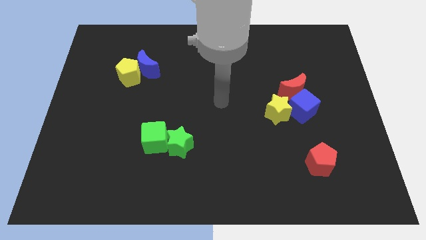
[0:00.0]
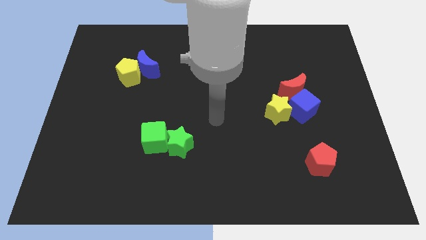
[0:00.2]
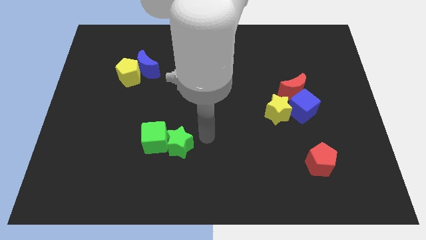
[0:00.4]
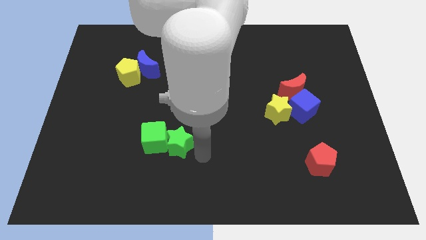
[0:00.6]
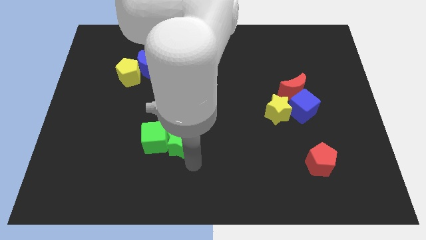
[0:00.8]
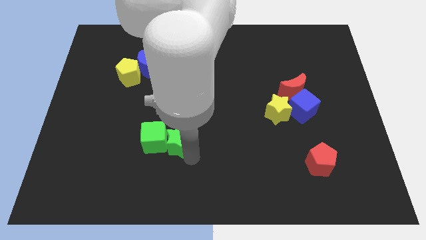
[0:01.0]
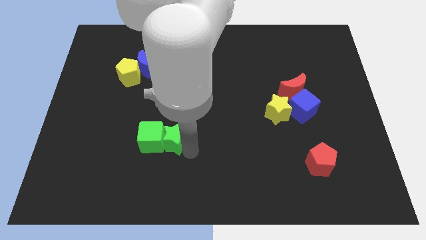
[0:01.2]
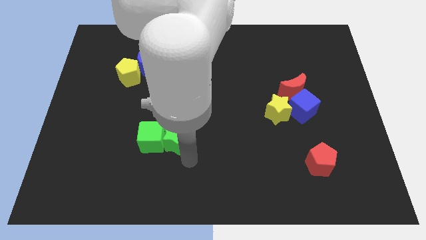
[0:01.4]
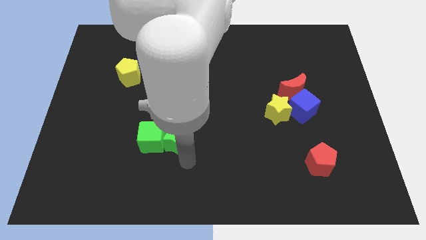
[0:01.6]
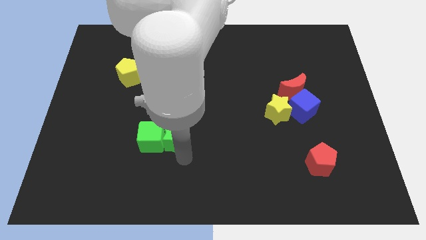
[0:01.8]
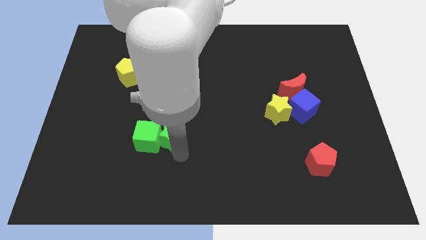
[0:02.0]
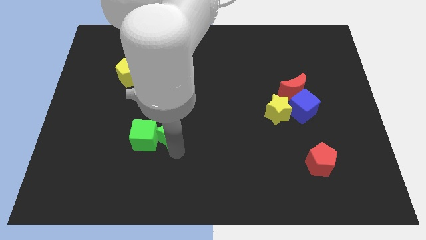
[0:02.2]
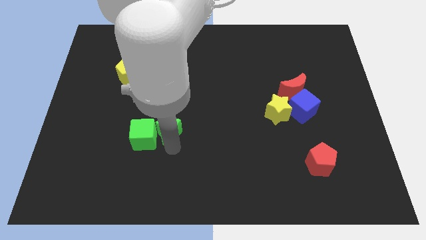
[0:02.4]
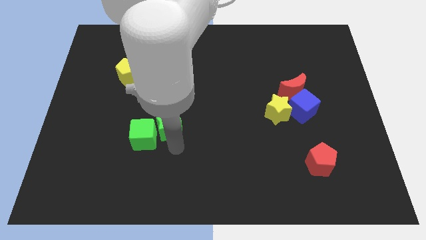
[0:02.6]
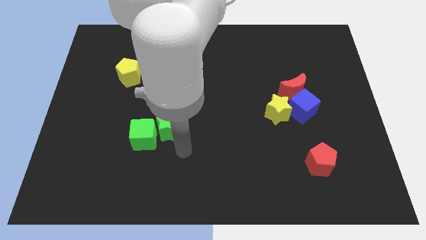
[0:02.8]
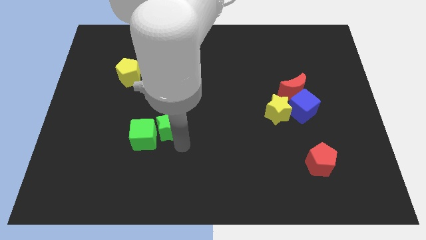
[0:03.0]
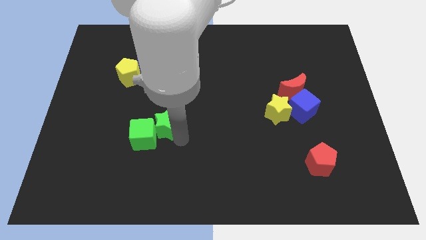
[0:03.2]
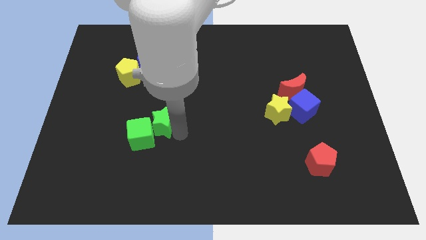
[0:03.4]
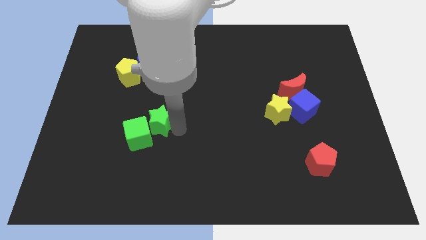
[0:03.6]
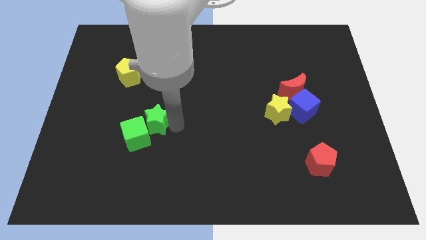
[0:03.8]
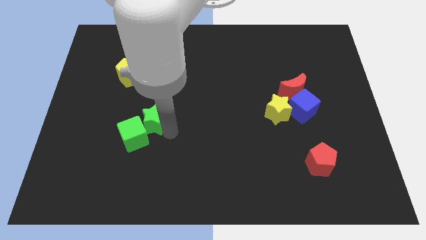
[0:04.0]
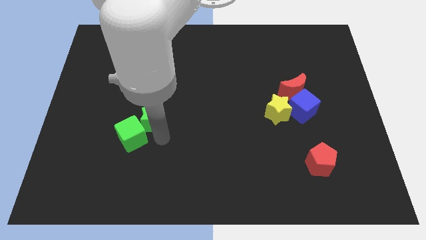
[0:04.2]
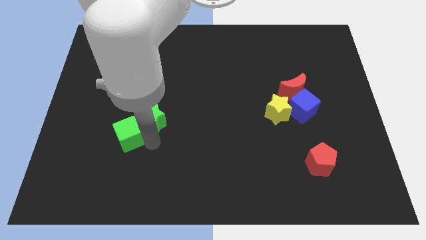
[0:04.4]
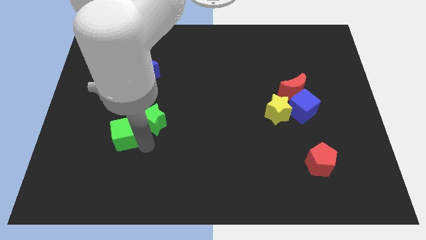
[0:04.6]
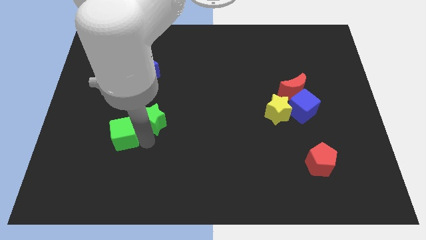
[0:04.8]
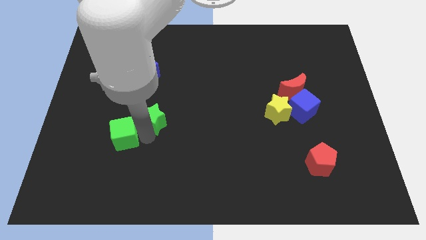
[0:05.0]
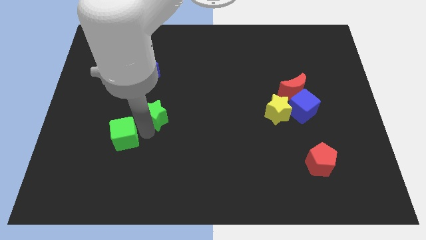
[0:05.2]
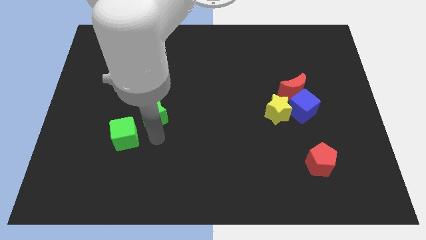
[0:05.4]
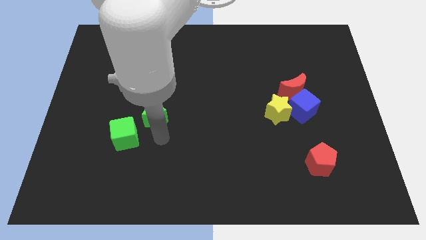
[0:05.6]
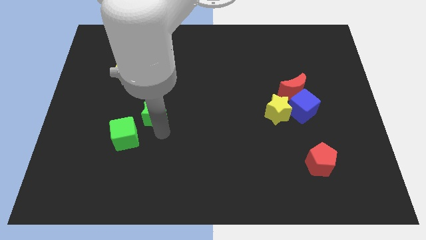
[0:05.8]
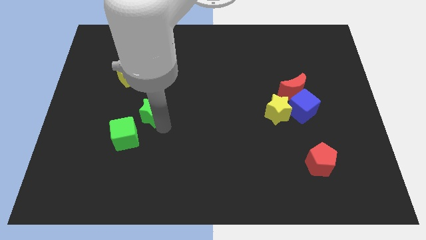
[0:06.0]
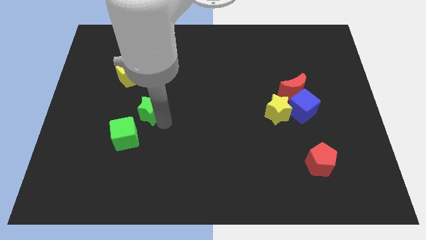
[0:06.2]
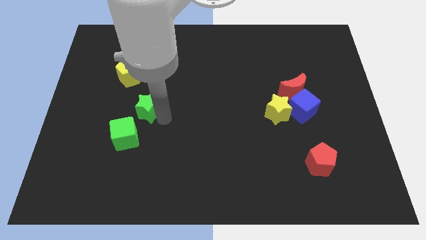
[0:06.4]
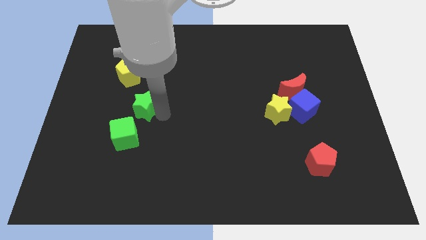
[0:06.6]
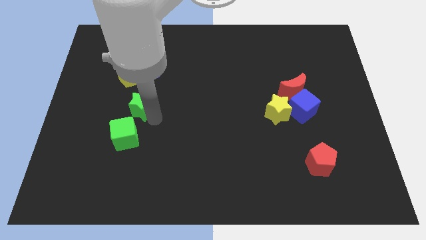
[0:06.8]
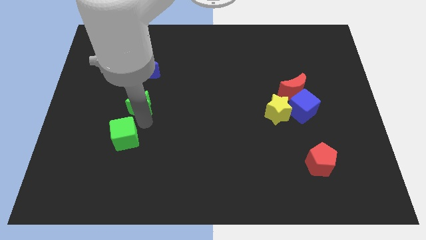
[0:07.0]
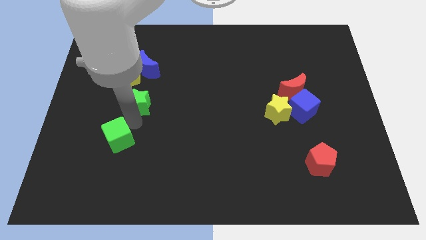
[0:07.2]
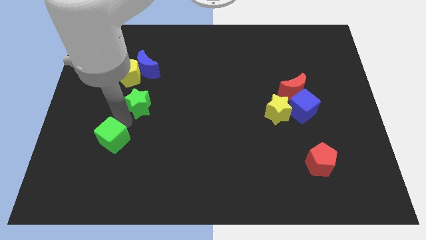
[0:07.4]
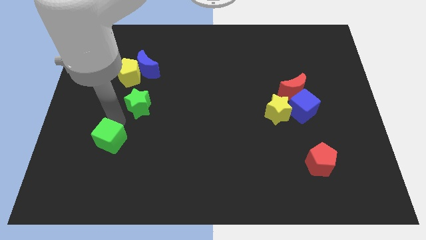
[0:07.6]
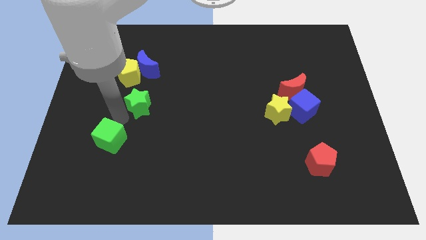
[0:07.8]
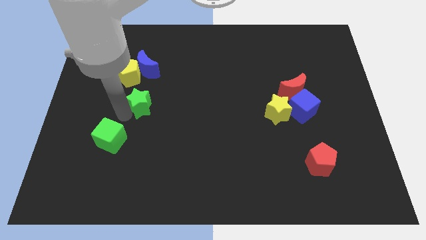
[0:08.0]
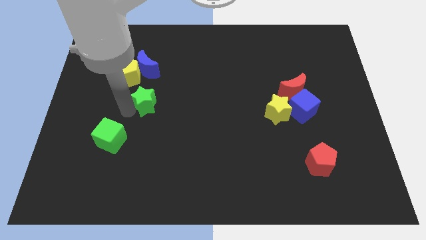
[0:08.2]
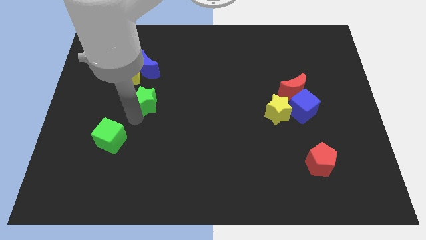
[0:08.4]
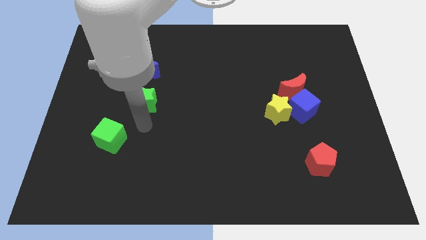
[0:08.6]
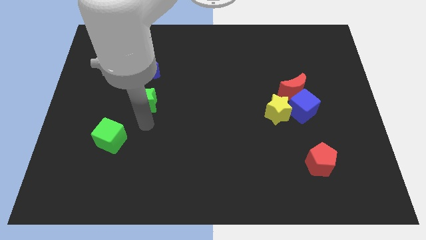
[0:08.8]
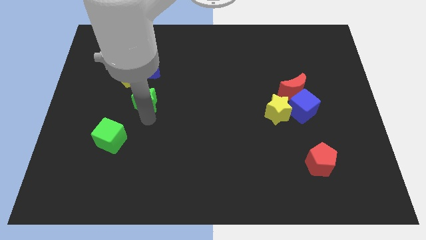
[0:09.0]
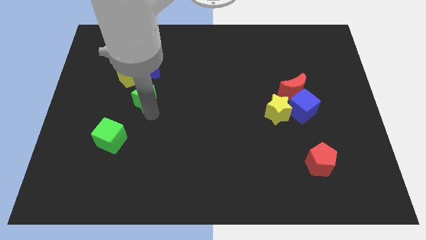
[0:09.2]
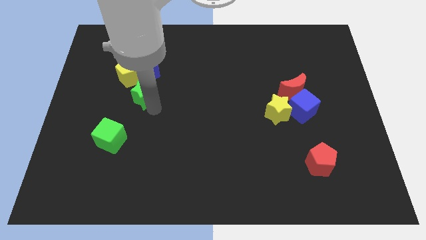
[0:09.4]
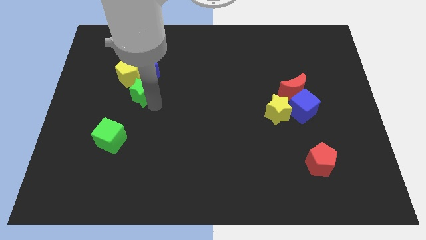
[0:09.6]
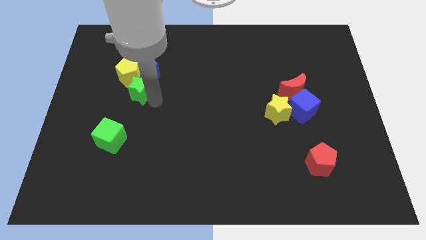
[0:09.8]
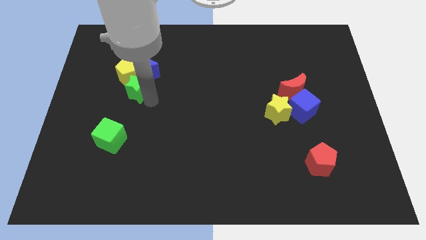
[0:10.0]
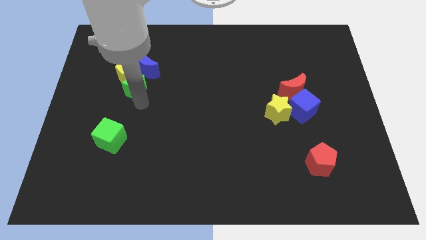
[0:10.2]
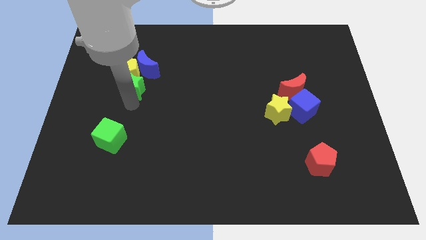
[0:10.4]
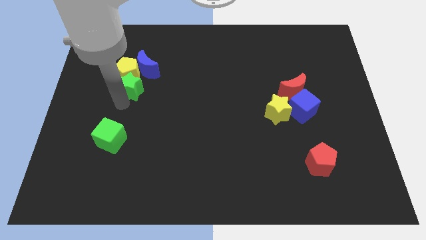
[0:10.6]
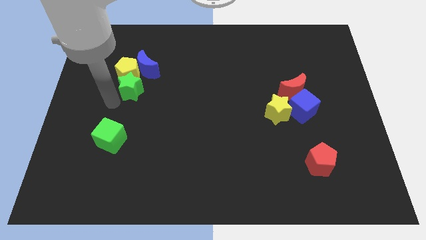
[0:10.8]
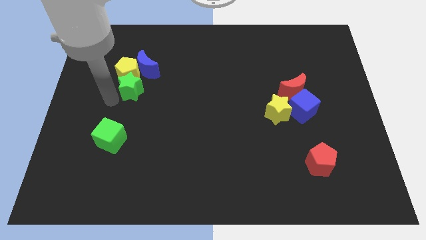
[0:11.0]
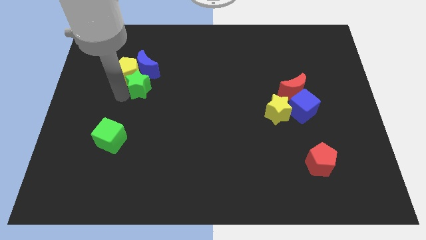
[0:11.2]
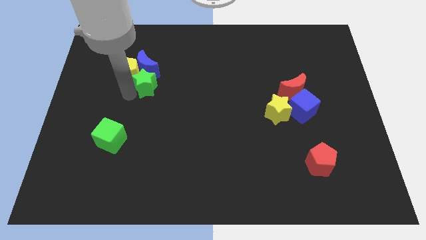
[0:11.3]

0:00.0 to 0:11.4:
put the green star close to the blue moon

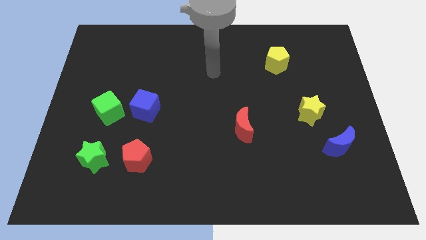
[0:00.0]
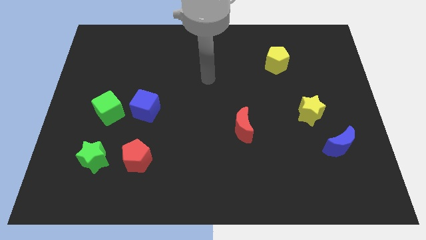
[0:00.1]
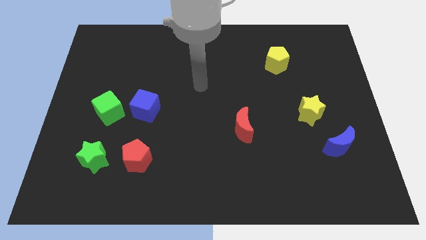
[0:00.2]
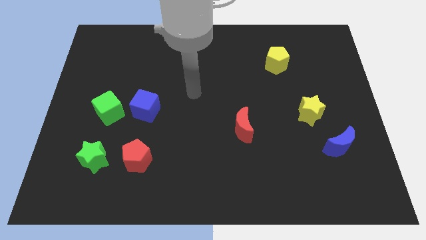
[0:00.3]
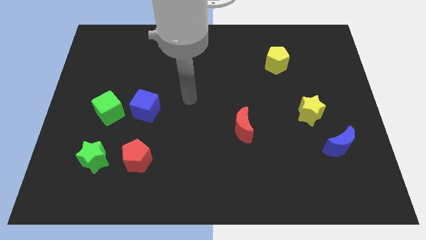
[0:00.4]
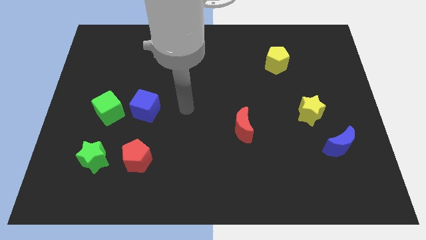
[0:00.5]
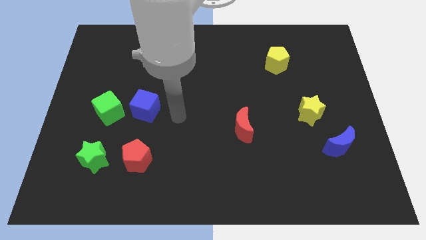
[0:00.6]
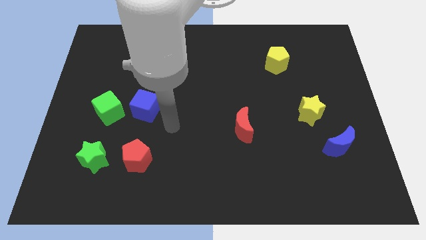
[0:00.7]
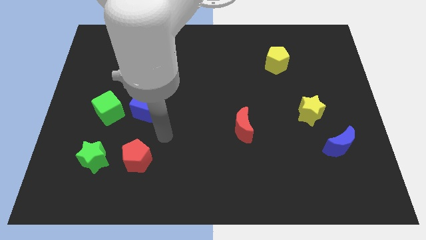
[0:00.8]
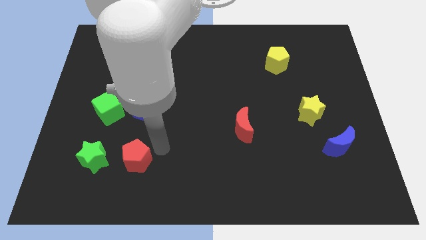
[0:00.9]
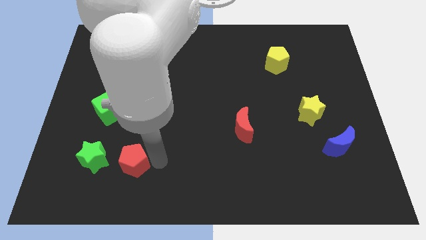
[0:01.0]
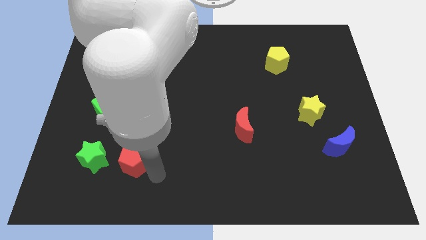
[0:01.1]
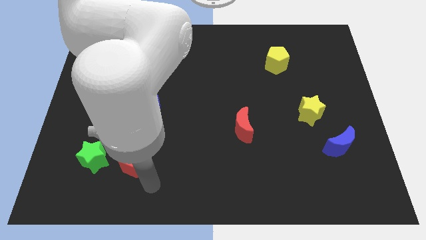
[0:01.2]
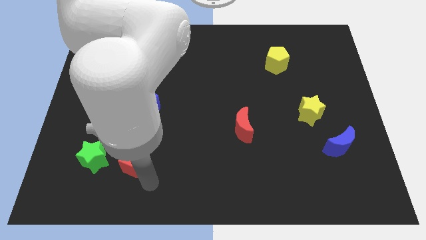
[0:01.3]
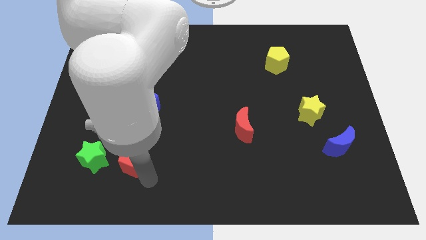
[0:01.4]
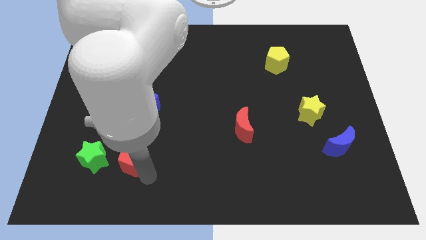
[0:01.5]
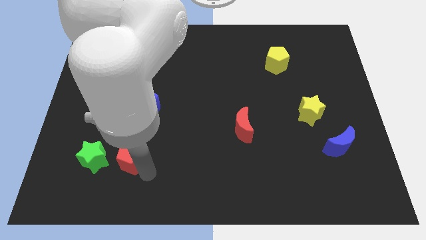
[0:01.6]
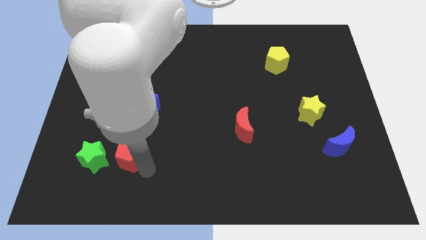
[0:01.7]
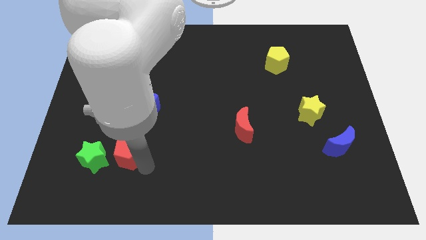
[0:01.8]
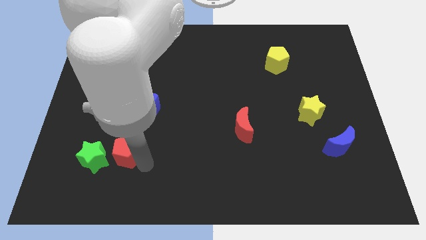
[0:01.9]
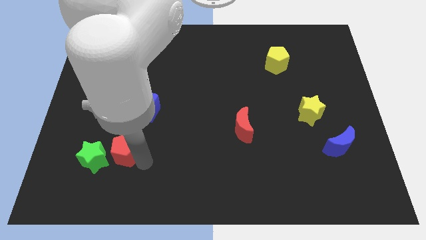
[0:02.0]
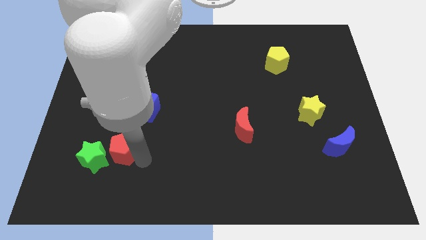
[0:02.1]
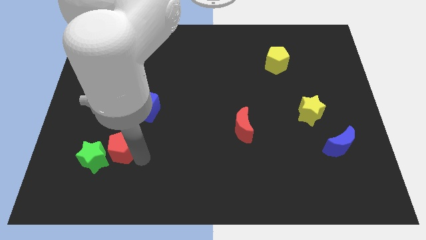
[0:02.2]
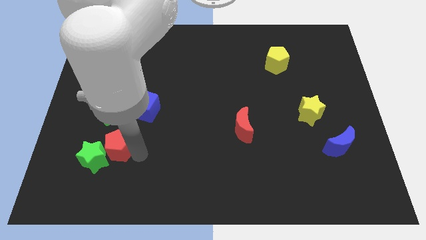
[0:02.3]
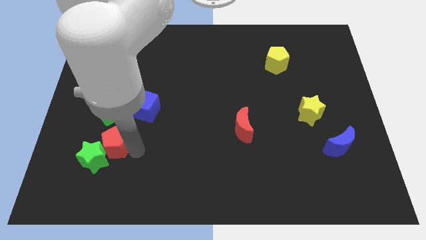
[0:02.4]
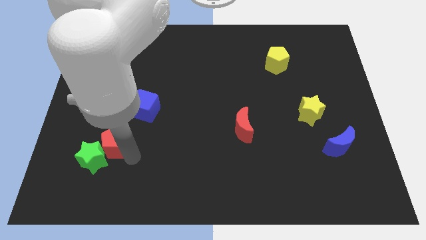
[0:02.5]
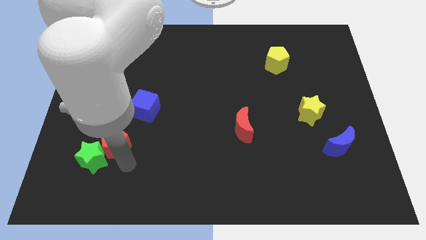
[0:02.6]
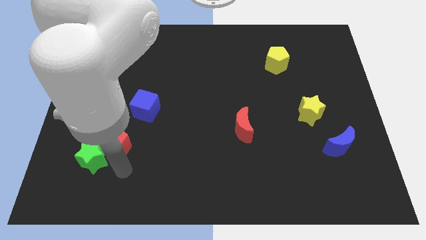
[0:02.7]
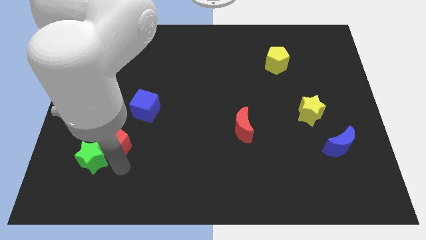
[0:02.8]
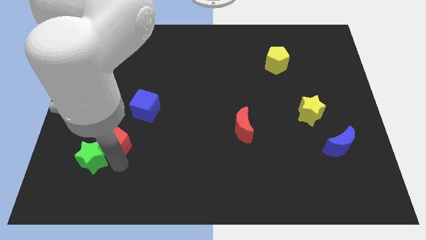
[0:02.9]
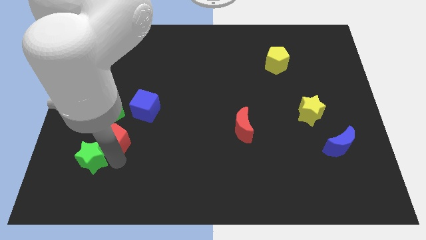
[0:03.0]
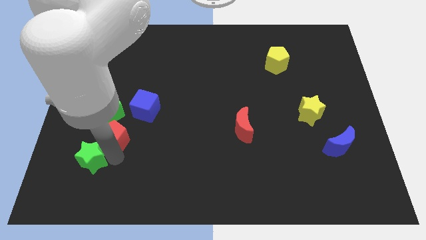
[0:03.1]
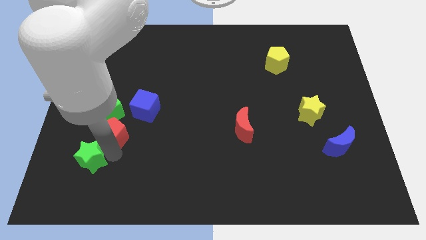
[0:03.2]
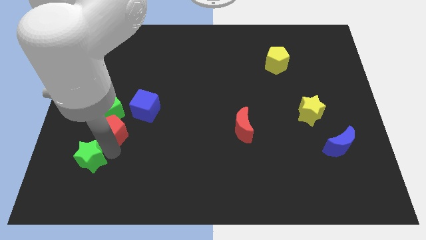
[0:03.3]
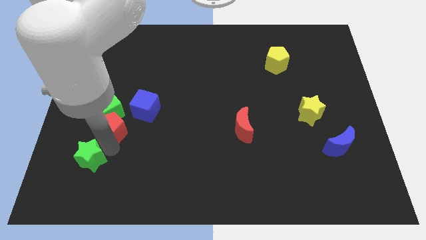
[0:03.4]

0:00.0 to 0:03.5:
slide the red pentagon next to the green cube
